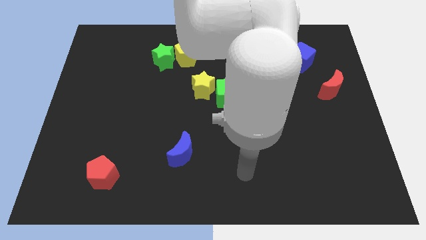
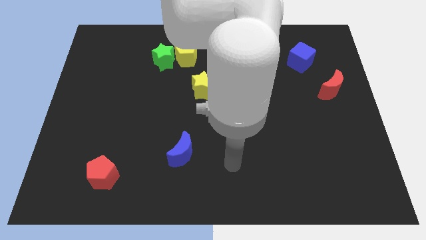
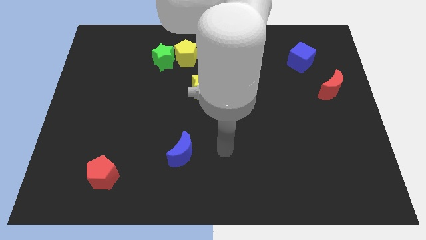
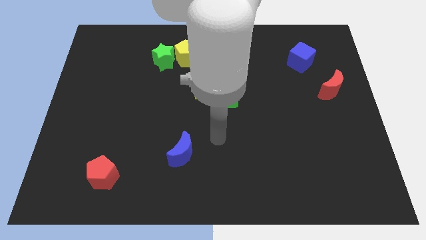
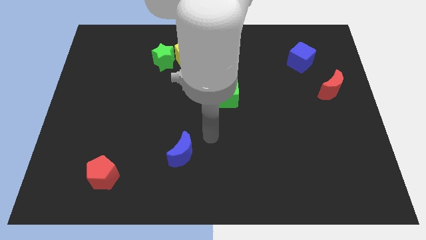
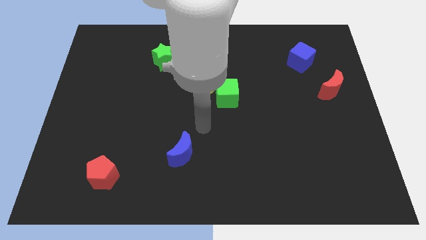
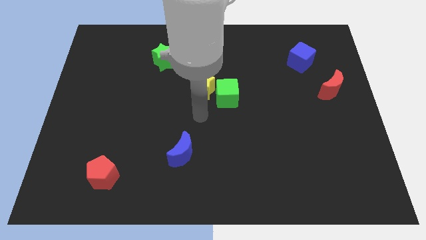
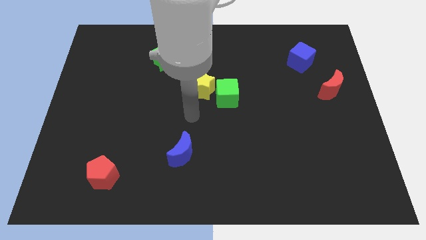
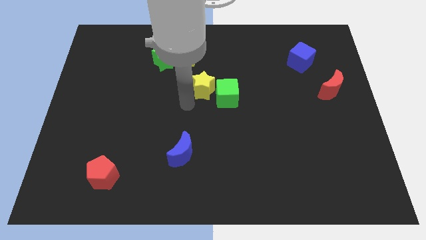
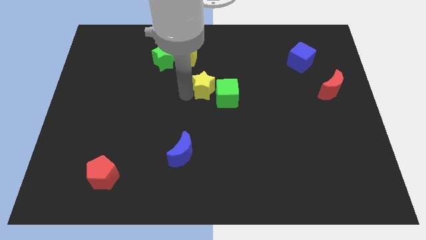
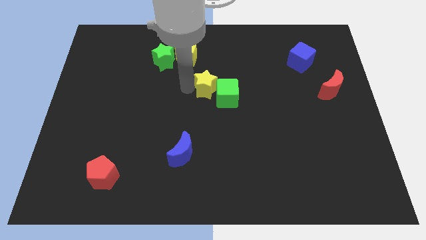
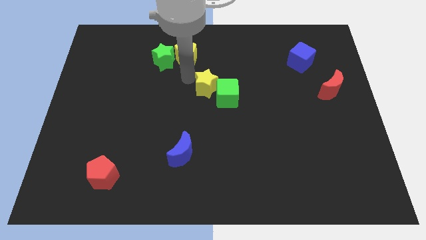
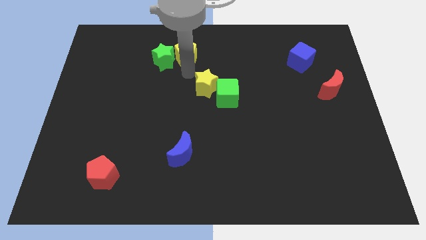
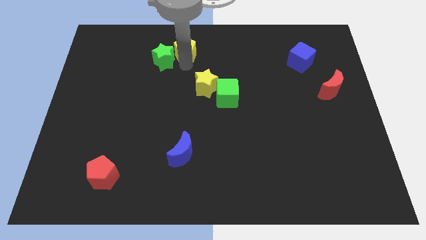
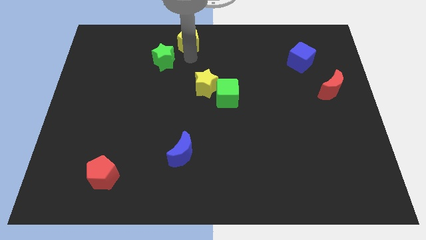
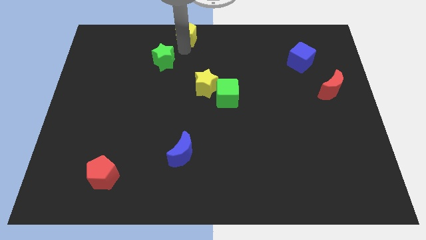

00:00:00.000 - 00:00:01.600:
move the green star away from the yellow pentagon

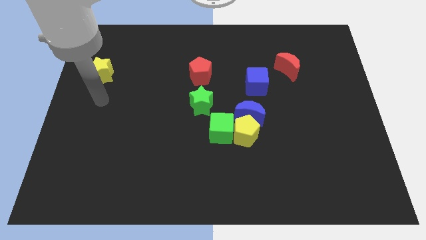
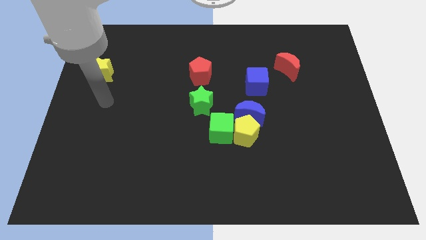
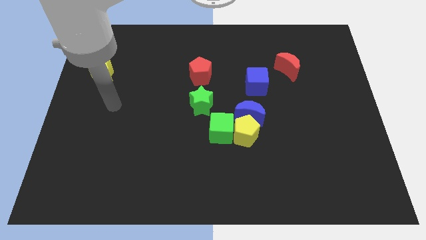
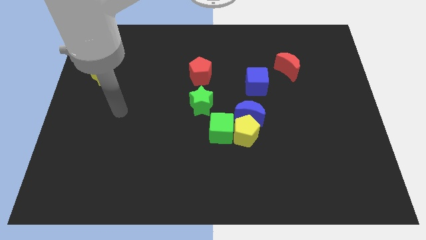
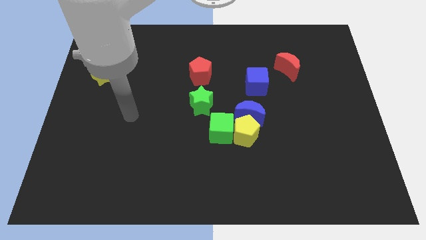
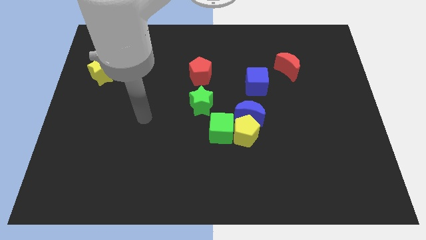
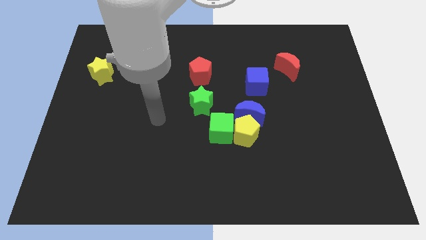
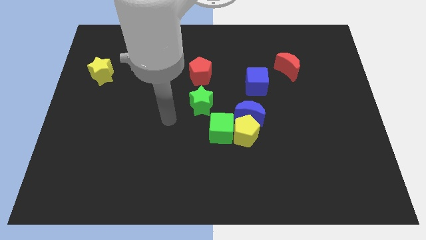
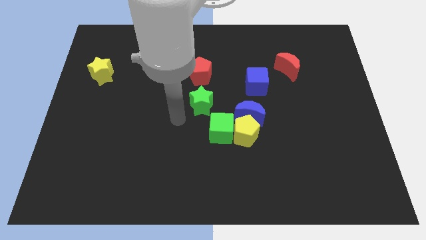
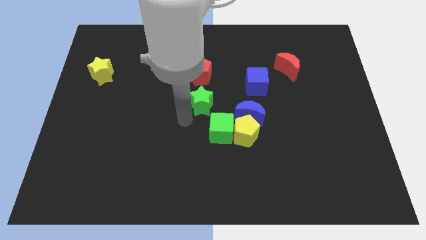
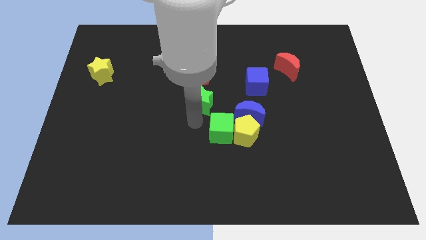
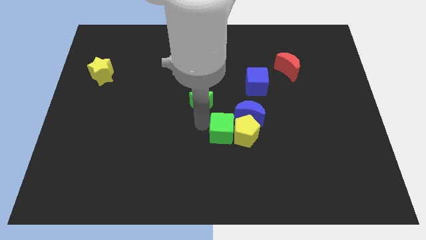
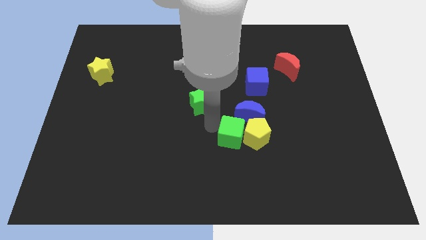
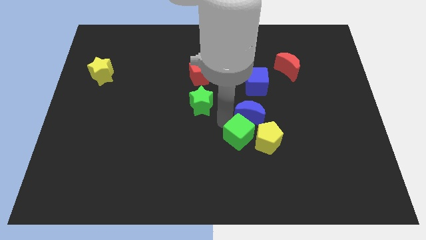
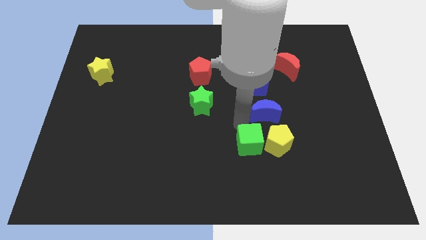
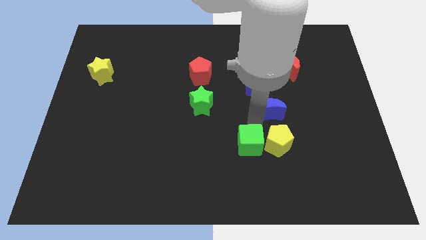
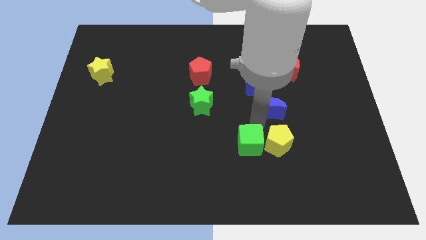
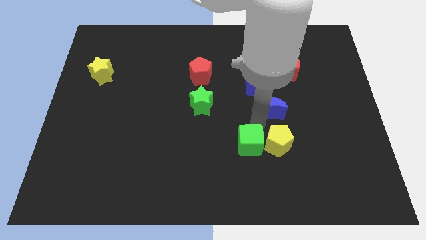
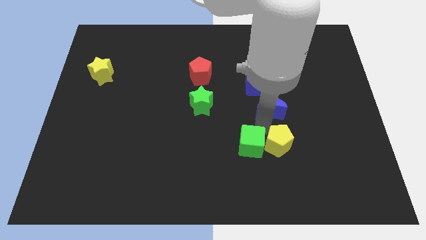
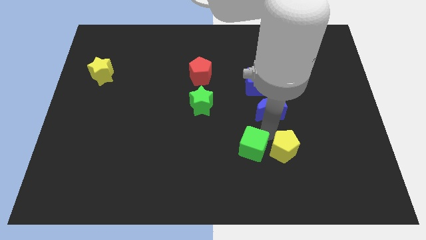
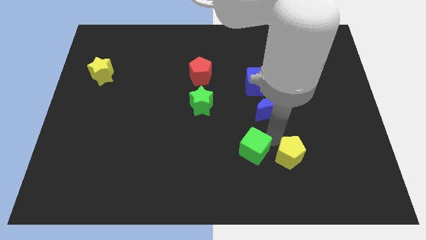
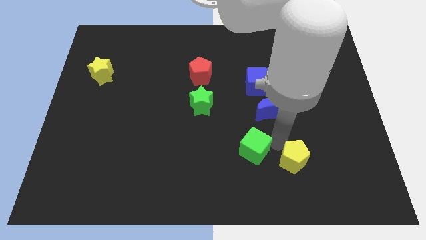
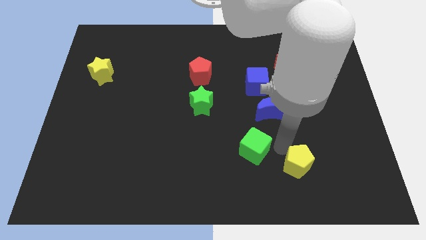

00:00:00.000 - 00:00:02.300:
pull the yellow pentagon apart from the blue moon and green cube

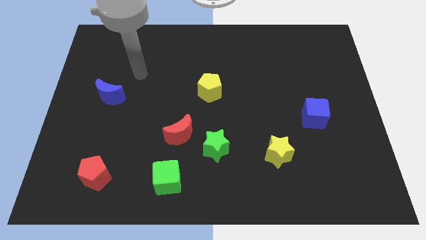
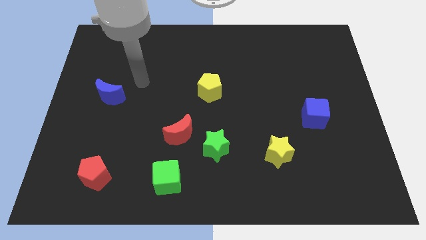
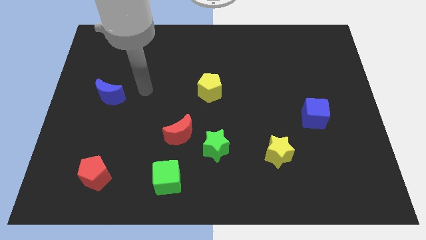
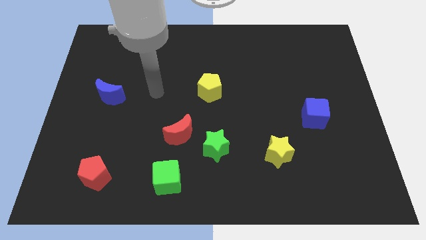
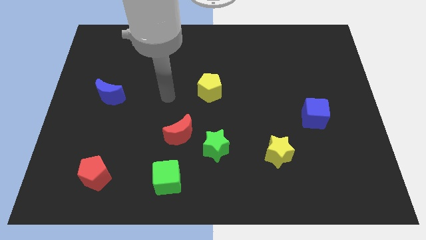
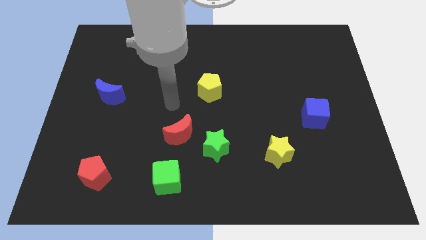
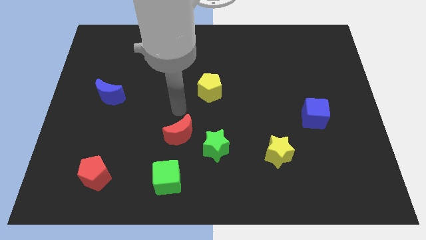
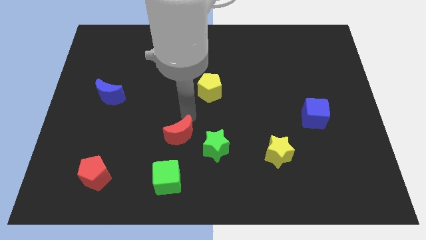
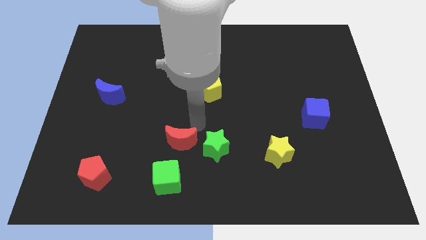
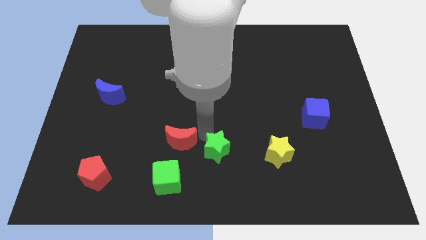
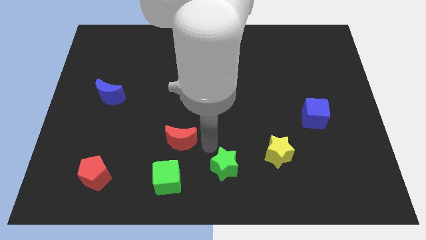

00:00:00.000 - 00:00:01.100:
move the red moon away from the green star

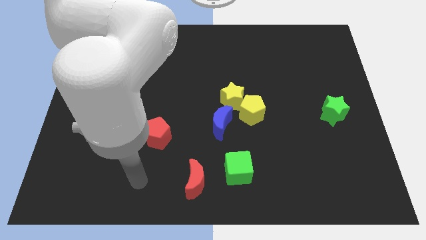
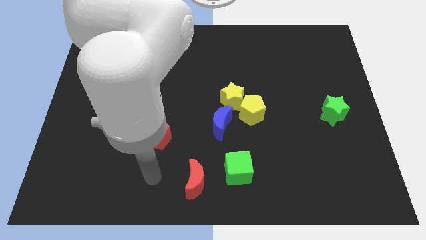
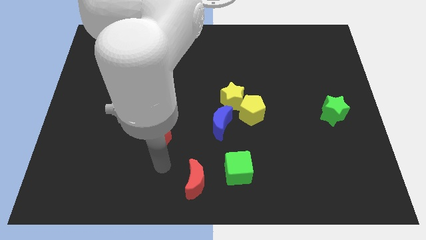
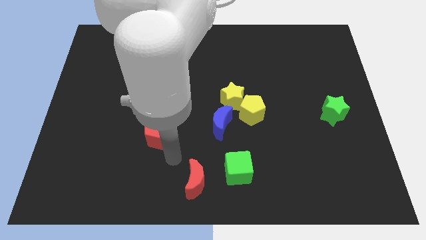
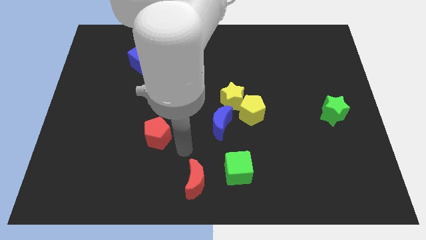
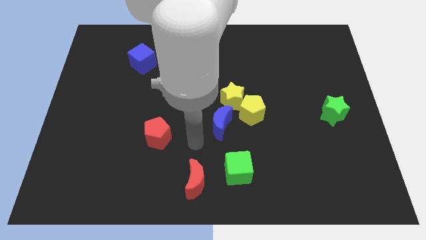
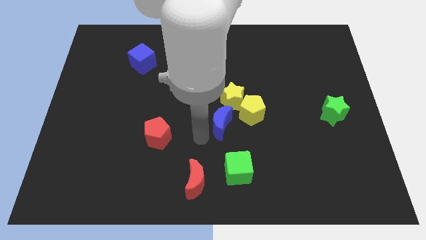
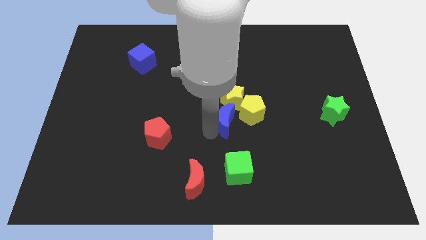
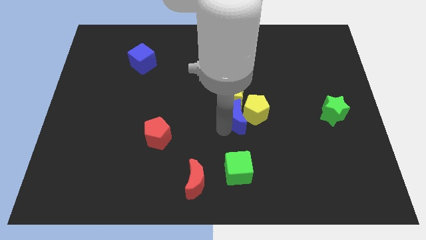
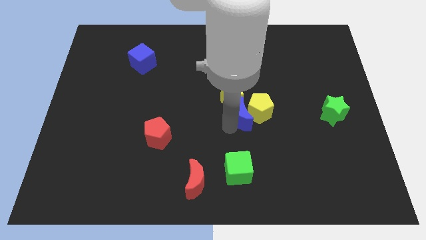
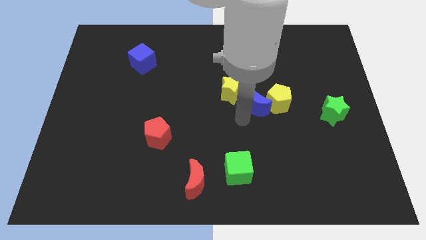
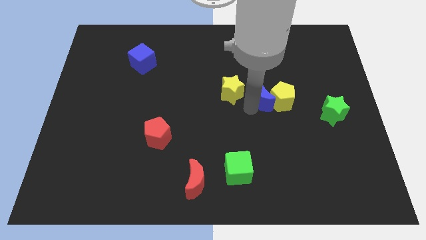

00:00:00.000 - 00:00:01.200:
move the yellow star away from the yellow pentagon and blue moon

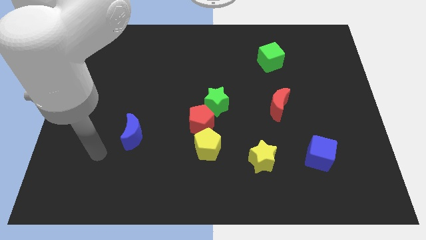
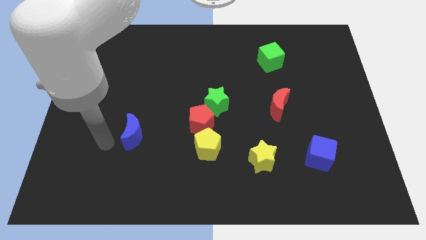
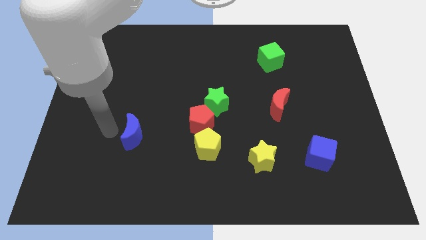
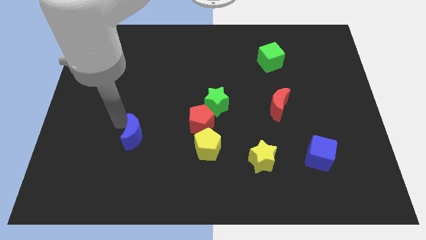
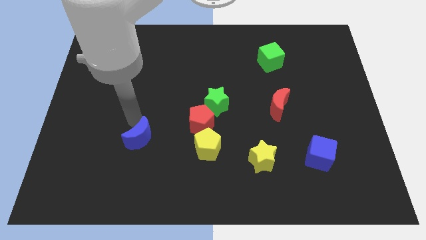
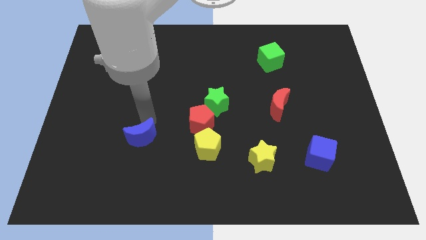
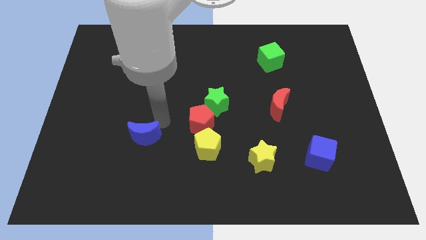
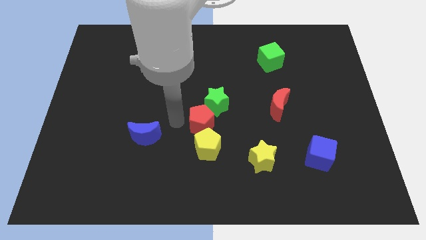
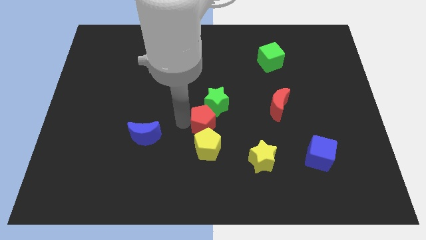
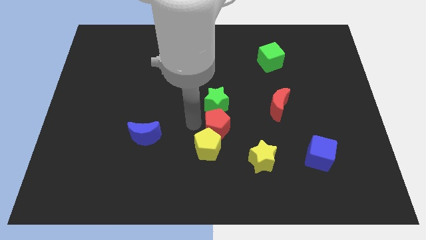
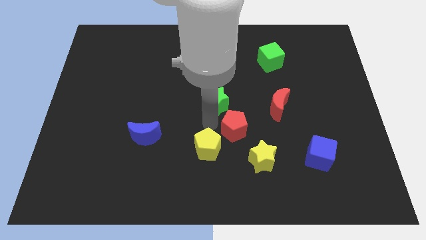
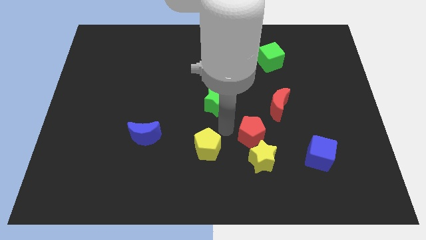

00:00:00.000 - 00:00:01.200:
move the yellow pentagon away from the red pentagon

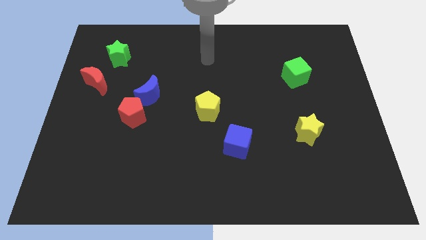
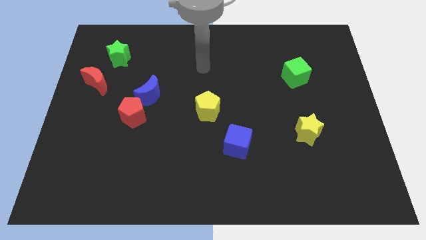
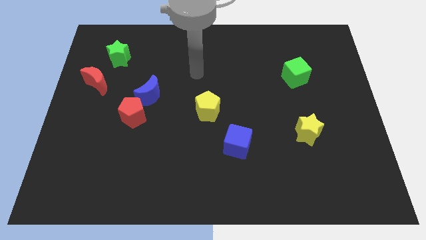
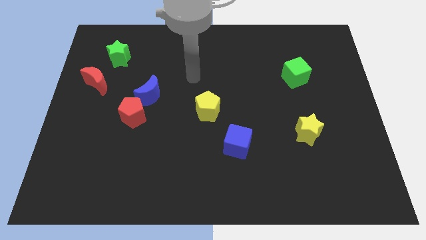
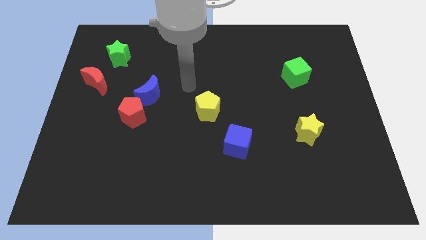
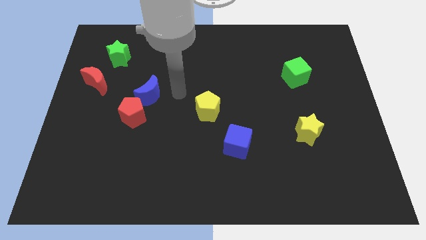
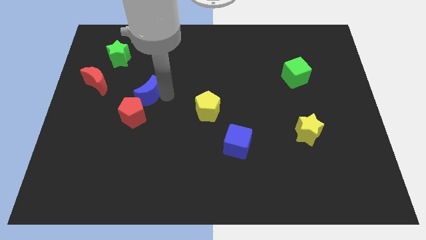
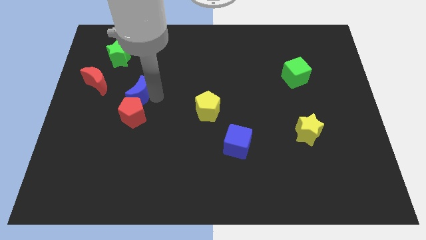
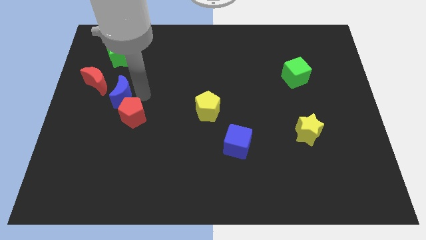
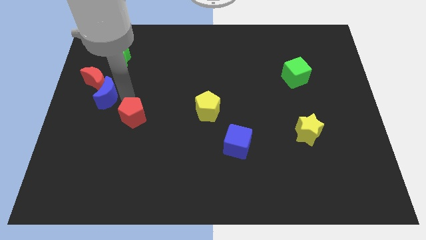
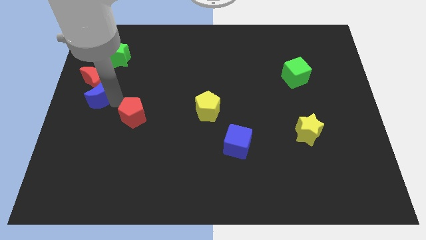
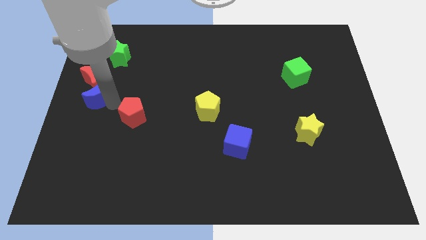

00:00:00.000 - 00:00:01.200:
separate the red pentagon from the blue moon

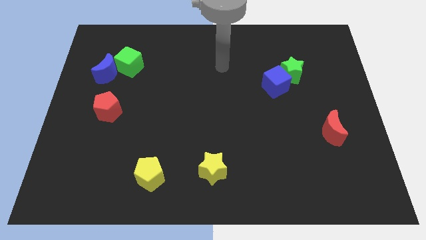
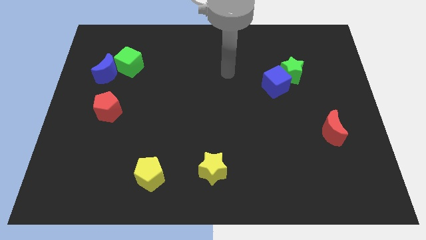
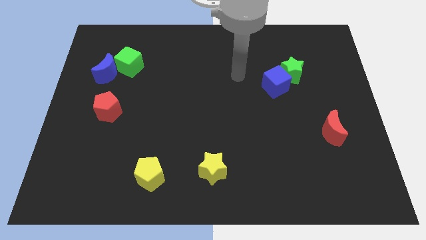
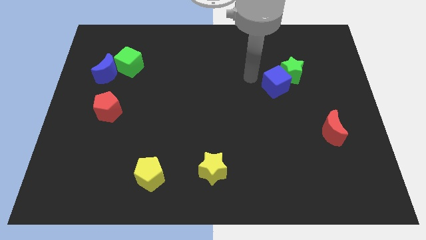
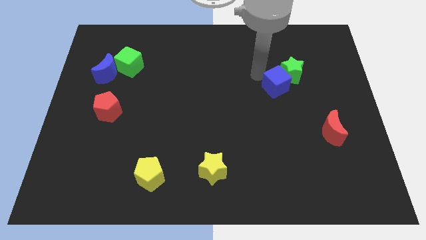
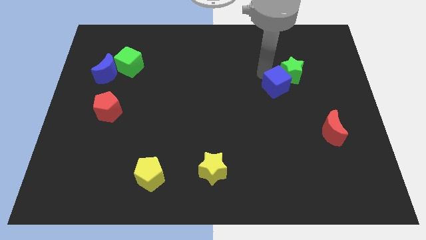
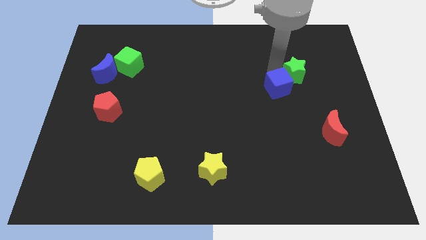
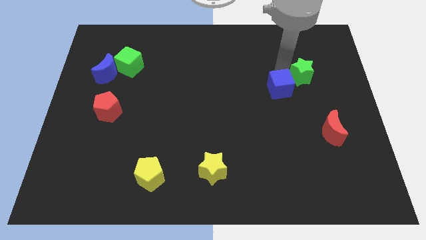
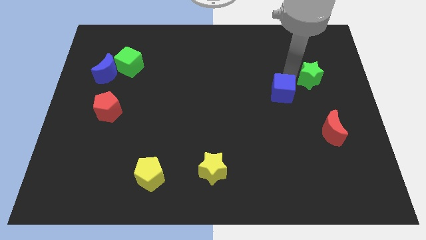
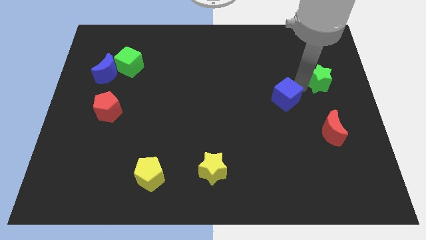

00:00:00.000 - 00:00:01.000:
separate the blue cube from the green star
